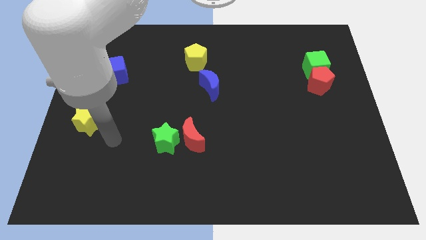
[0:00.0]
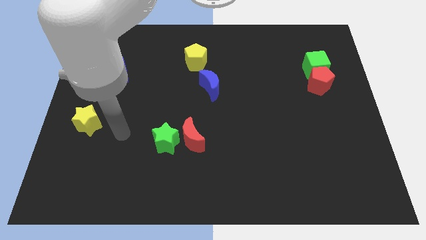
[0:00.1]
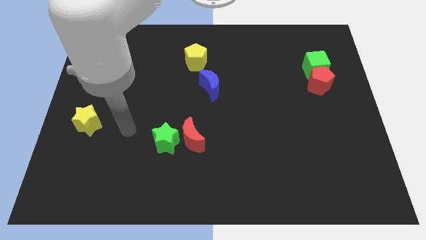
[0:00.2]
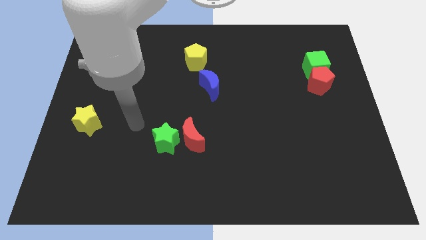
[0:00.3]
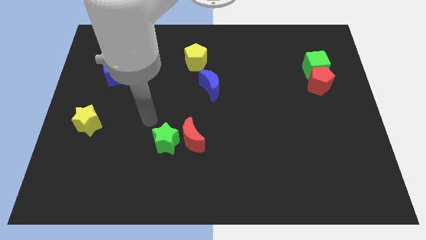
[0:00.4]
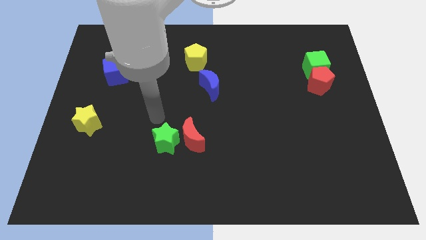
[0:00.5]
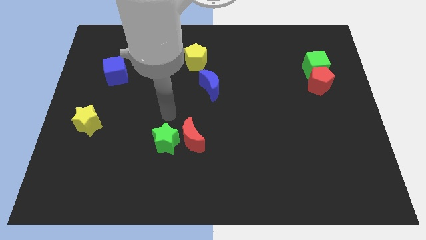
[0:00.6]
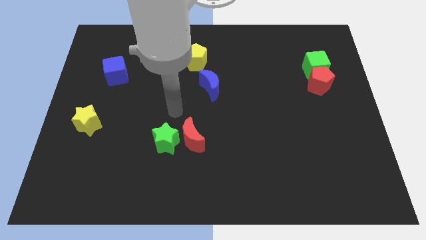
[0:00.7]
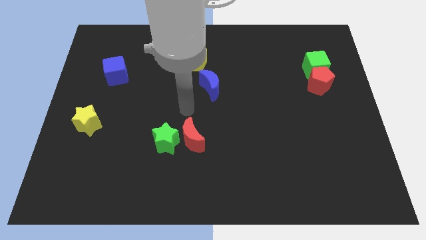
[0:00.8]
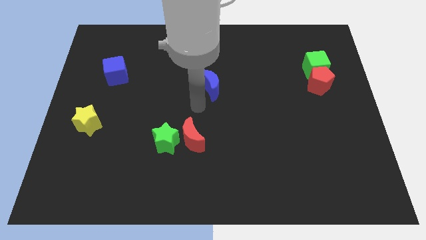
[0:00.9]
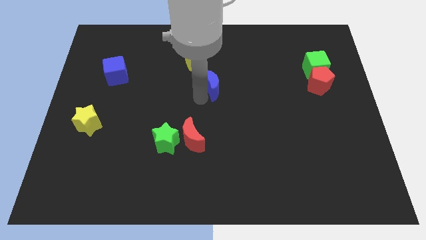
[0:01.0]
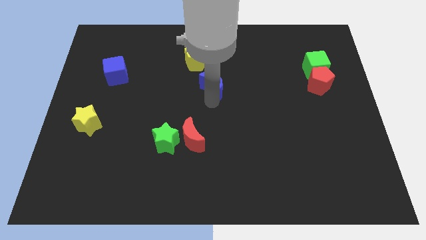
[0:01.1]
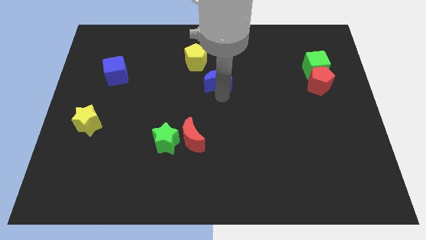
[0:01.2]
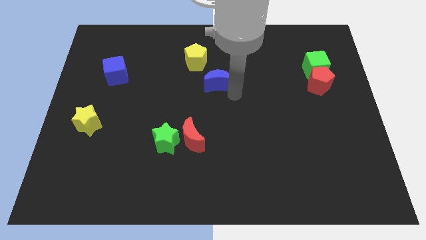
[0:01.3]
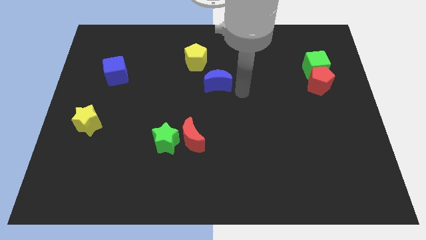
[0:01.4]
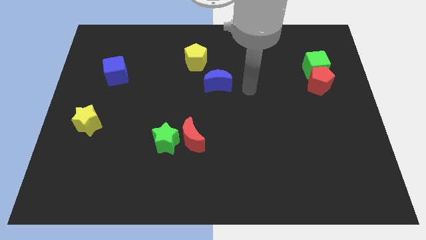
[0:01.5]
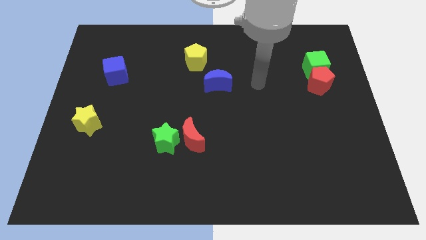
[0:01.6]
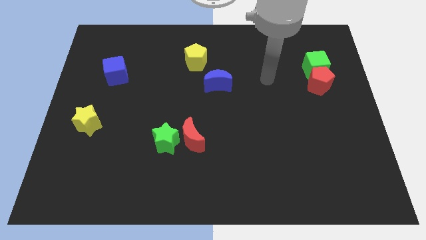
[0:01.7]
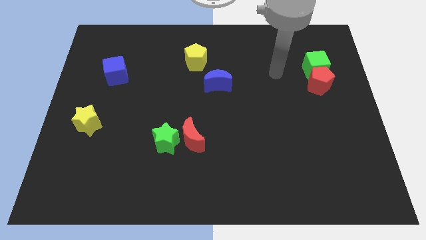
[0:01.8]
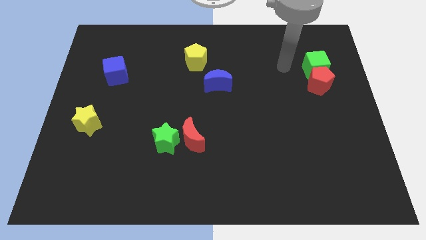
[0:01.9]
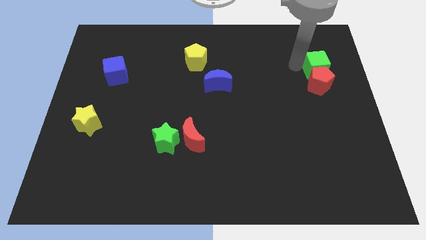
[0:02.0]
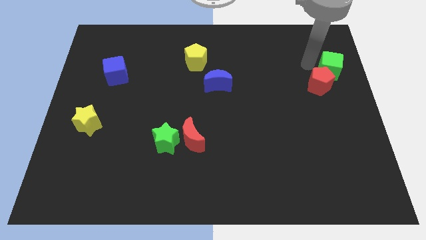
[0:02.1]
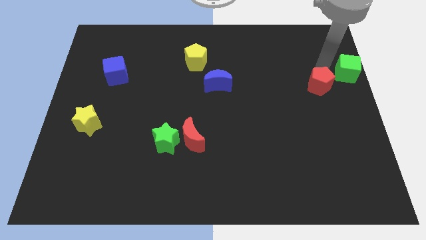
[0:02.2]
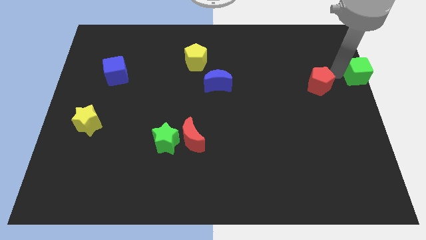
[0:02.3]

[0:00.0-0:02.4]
pull the red pentagon apart from the green cube

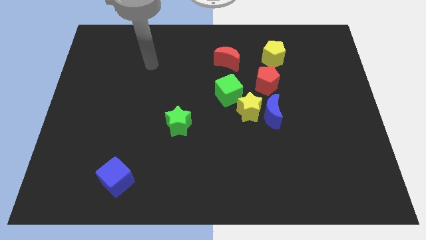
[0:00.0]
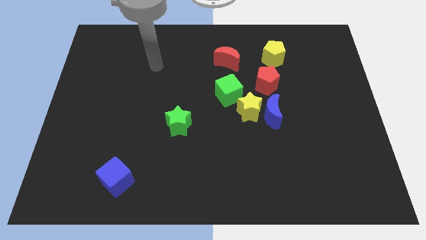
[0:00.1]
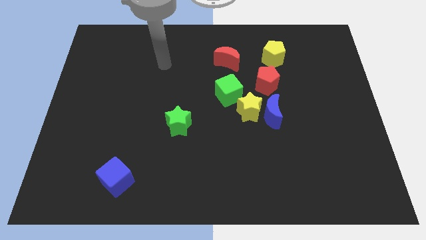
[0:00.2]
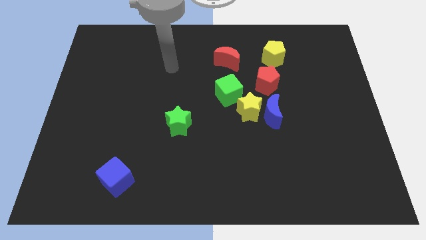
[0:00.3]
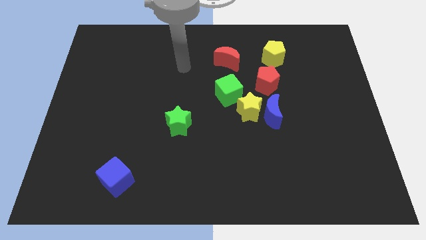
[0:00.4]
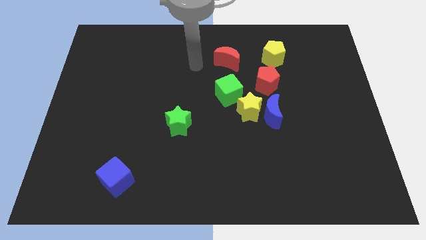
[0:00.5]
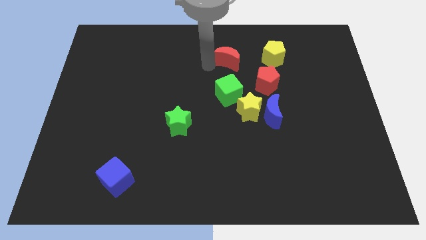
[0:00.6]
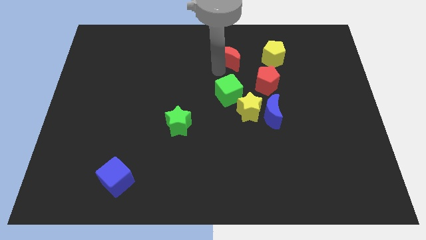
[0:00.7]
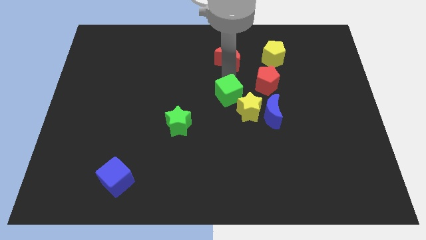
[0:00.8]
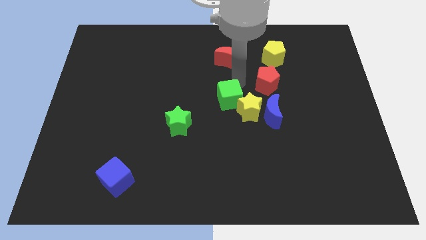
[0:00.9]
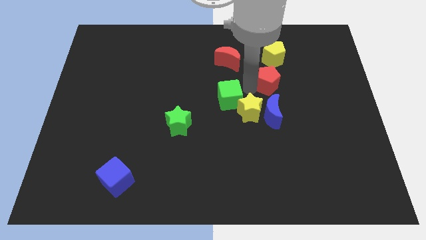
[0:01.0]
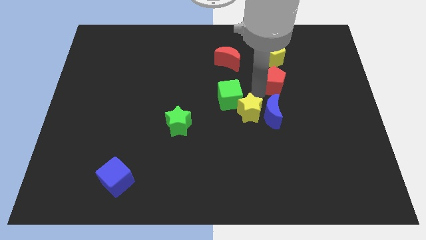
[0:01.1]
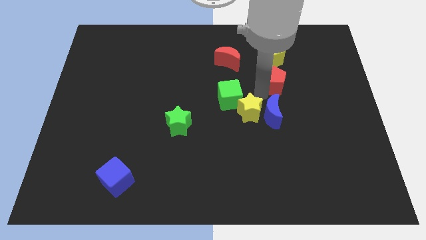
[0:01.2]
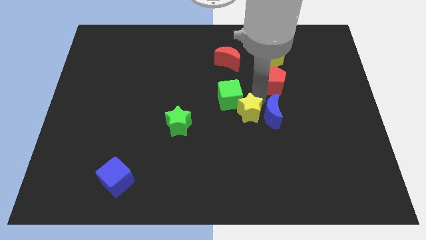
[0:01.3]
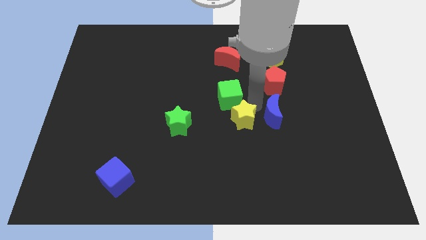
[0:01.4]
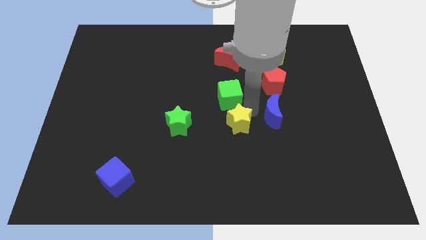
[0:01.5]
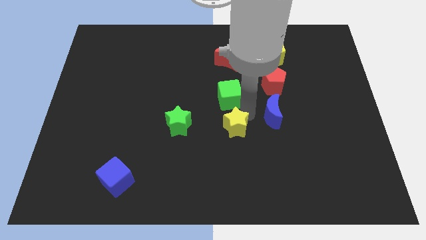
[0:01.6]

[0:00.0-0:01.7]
separate the yellow star from the blue moon, green cube, and red pentagon

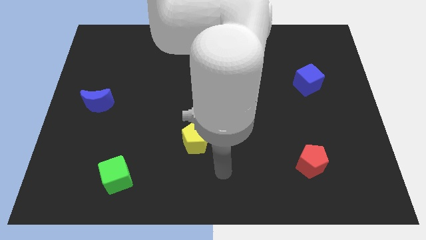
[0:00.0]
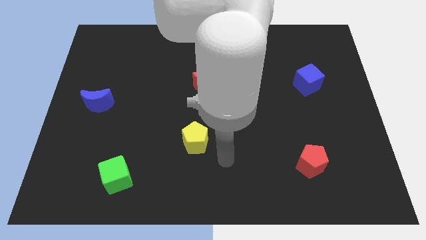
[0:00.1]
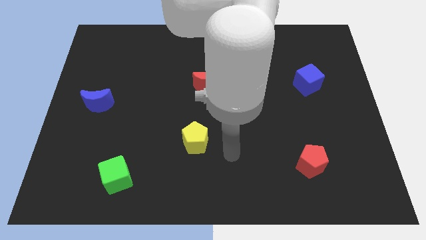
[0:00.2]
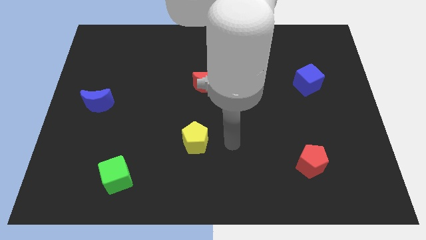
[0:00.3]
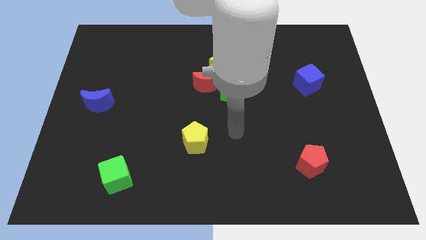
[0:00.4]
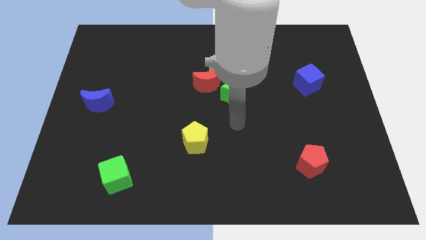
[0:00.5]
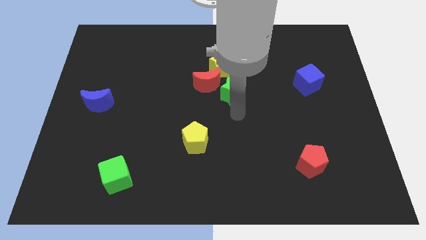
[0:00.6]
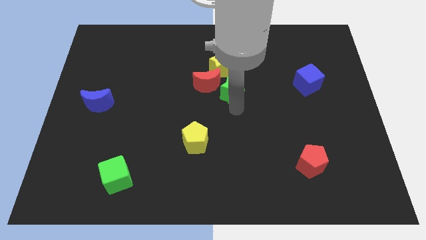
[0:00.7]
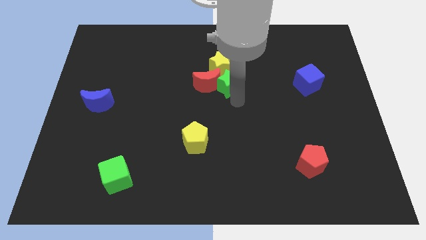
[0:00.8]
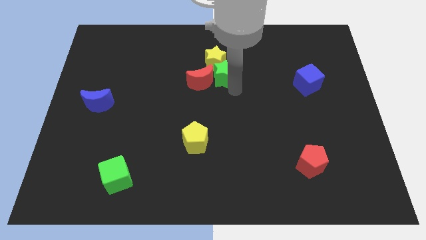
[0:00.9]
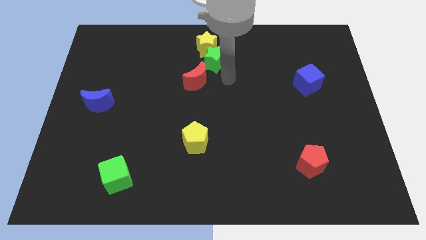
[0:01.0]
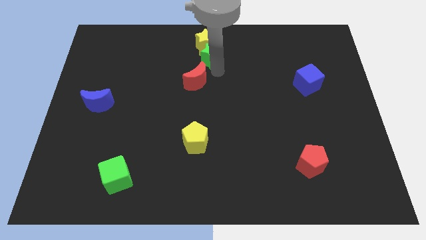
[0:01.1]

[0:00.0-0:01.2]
separate the red moon from the yellow star and green star

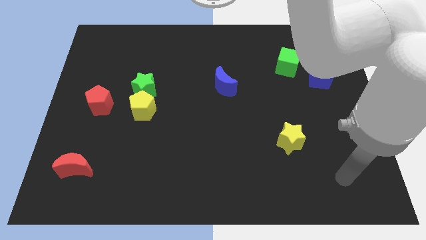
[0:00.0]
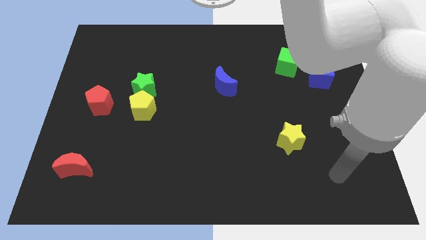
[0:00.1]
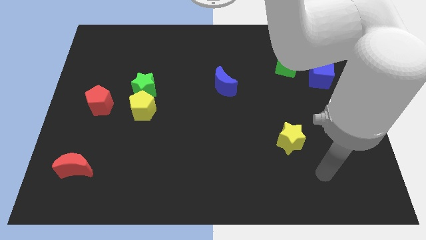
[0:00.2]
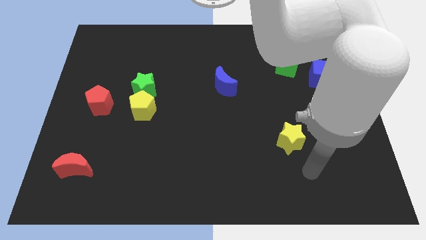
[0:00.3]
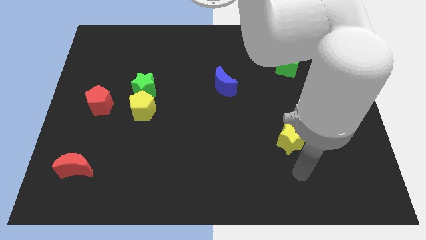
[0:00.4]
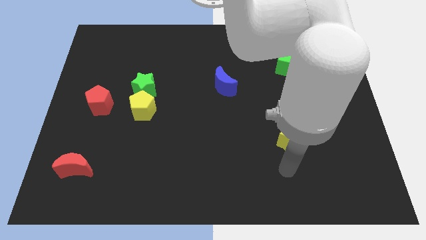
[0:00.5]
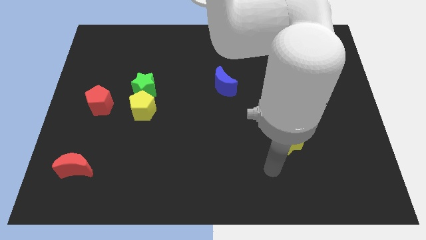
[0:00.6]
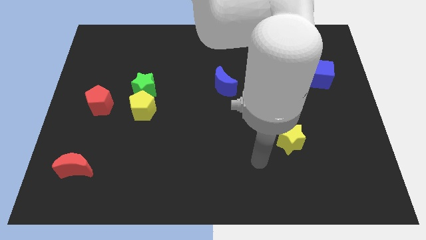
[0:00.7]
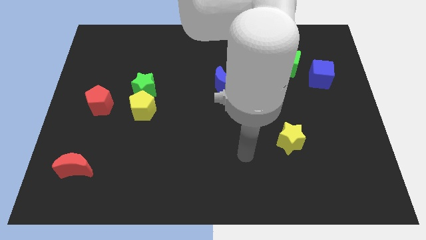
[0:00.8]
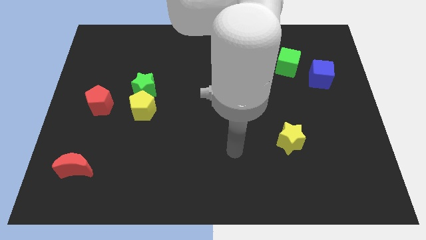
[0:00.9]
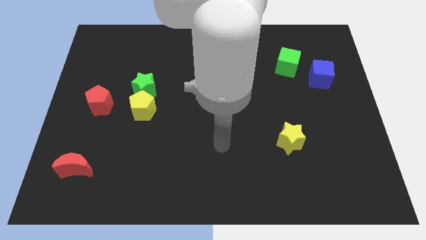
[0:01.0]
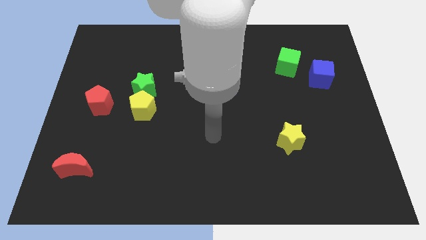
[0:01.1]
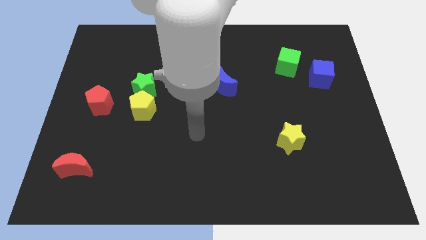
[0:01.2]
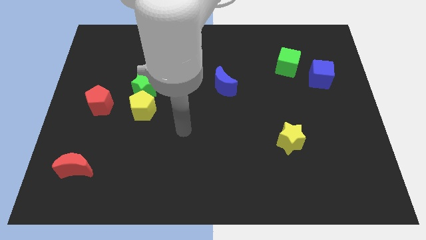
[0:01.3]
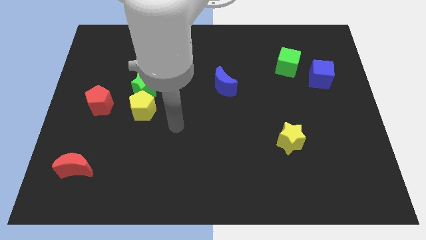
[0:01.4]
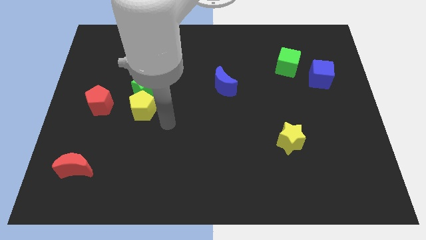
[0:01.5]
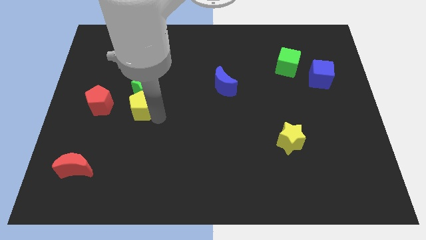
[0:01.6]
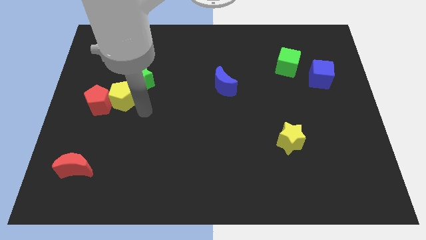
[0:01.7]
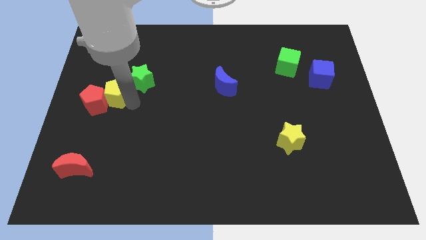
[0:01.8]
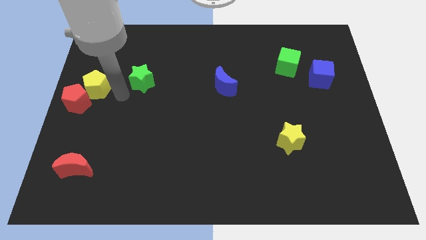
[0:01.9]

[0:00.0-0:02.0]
move the green star away from the yellow pentagon

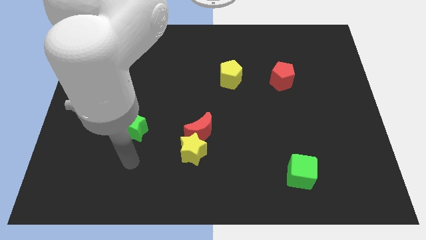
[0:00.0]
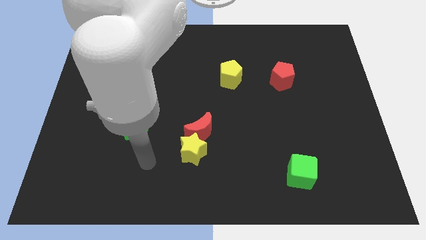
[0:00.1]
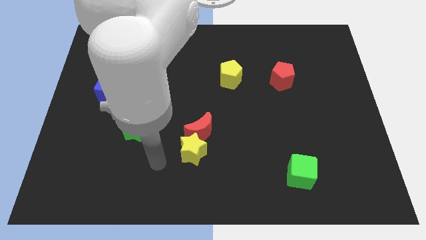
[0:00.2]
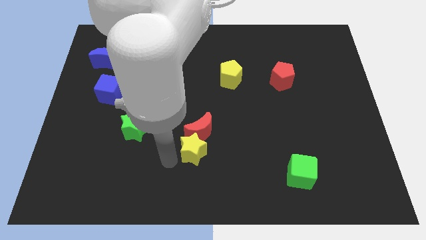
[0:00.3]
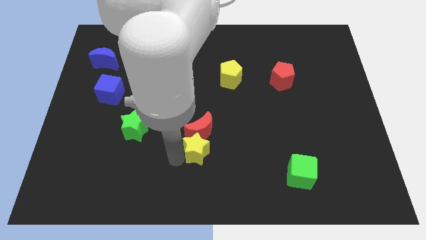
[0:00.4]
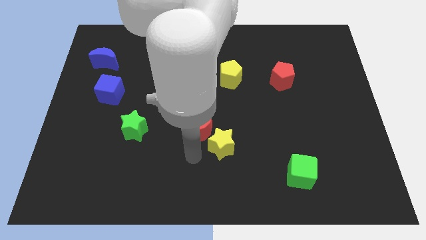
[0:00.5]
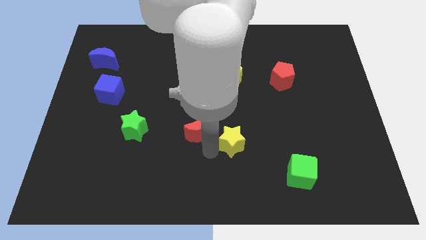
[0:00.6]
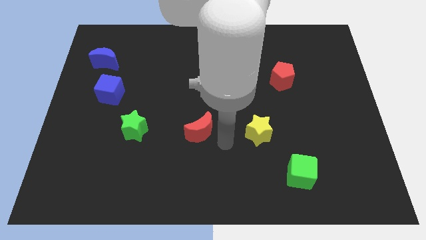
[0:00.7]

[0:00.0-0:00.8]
pull the red moon apart from the yellow star

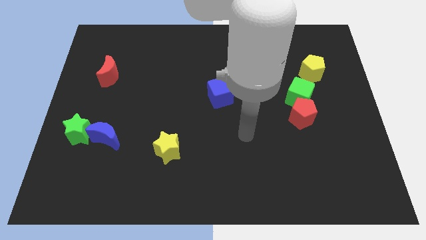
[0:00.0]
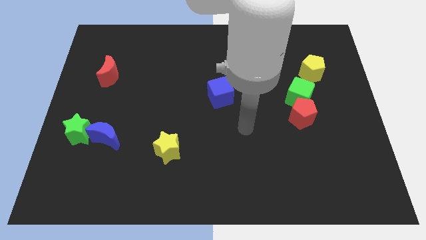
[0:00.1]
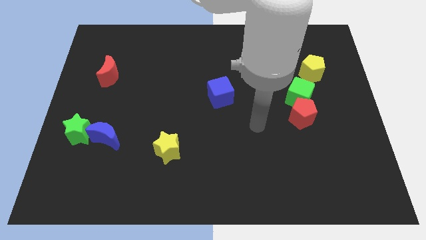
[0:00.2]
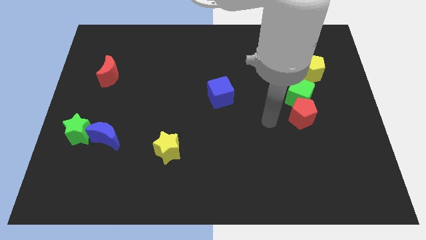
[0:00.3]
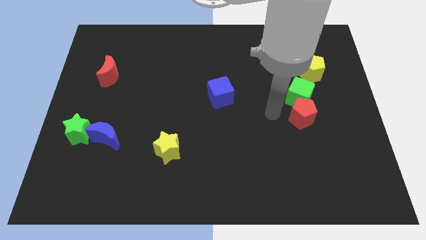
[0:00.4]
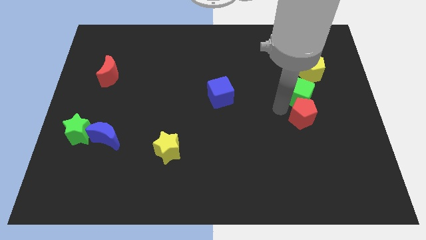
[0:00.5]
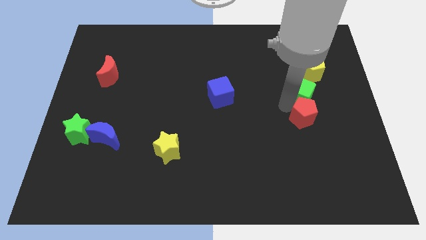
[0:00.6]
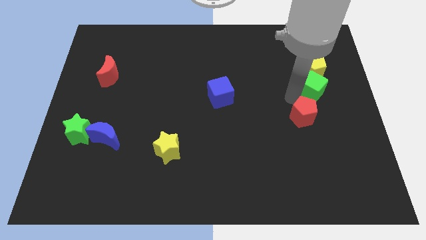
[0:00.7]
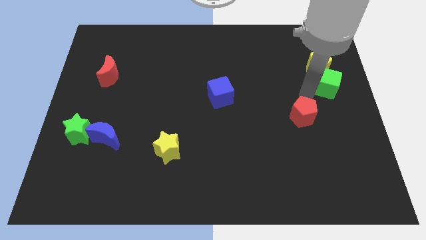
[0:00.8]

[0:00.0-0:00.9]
move the red pentagon away from the green cube

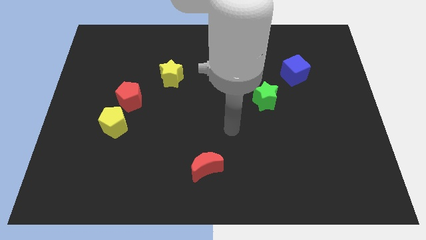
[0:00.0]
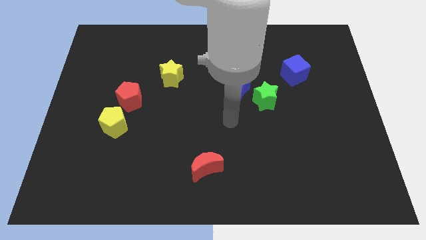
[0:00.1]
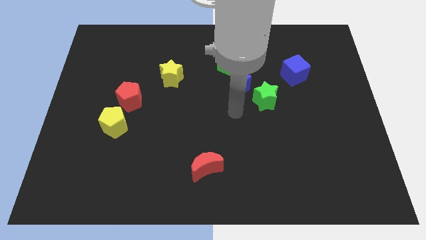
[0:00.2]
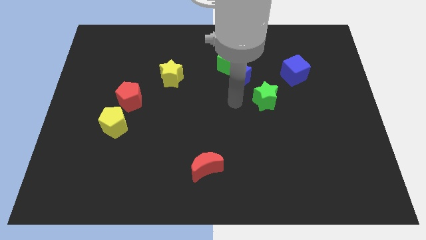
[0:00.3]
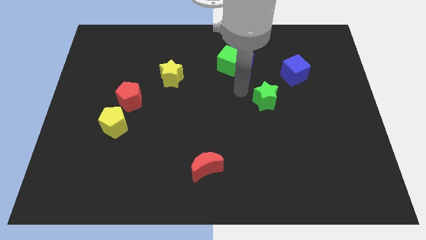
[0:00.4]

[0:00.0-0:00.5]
separate the green star from the blue moon
